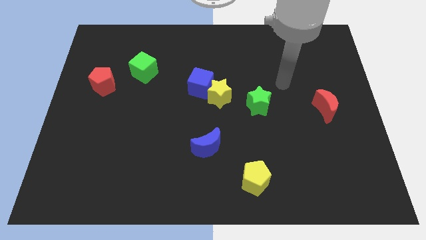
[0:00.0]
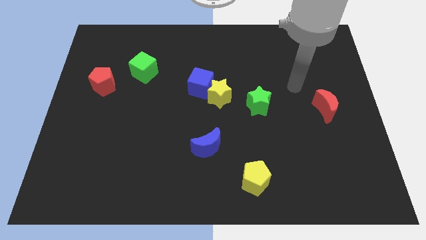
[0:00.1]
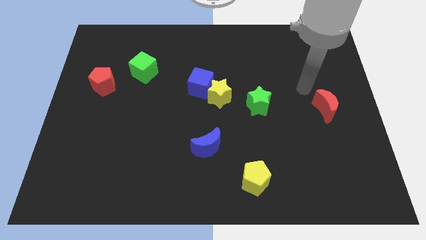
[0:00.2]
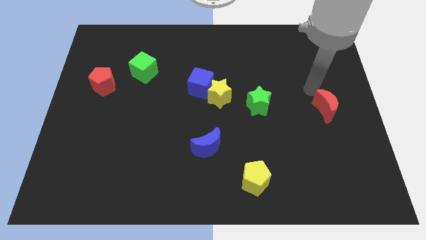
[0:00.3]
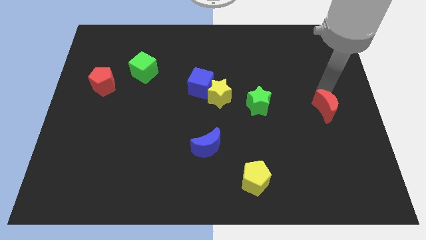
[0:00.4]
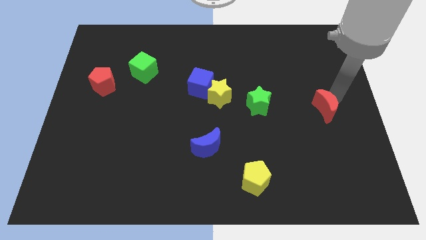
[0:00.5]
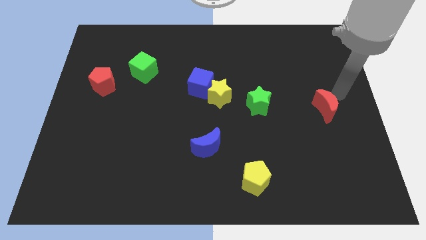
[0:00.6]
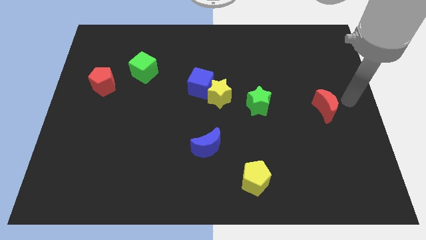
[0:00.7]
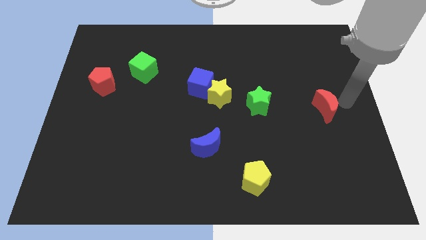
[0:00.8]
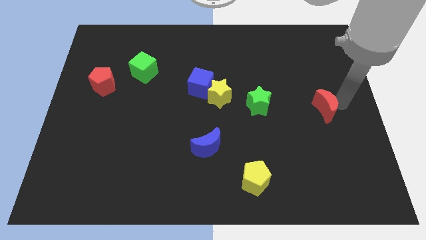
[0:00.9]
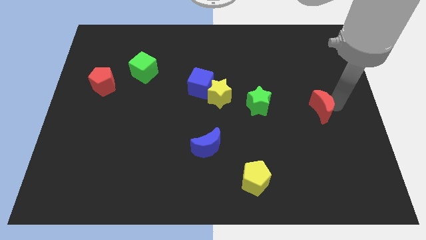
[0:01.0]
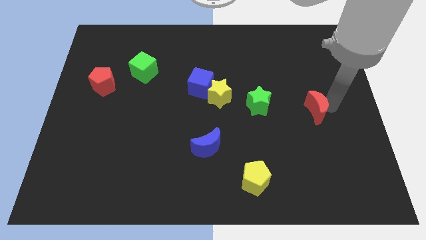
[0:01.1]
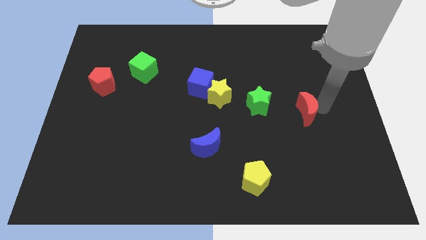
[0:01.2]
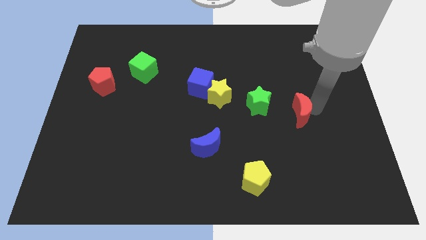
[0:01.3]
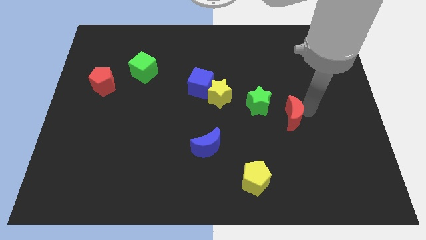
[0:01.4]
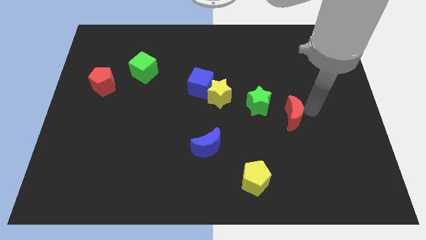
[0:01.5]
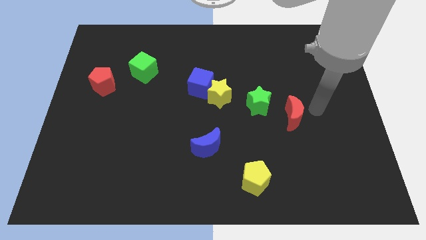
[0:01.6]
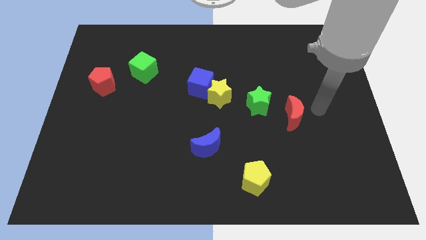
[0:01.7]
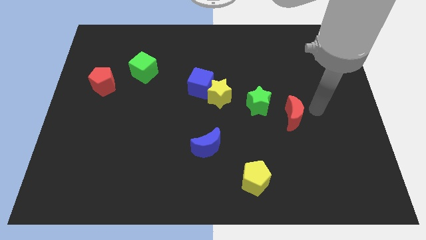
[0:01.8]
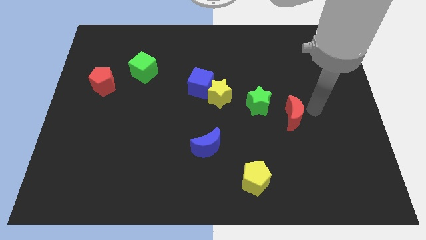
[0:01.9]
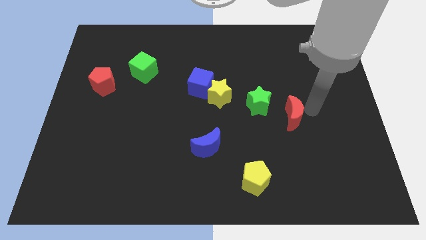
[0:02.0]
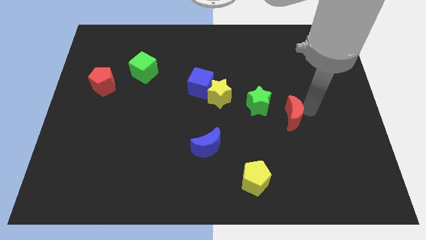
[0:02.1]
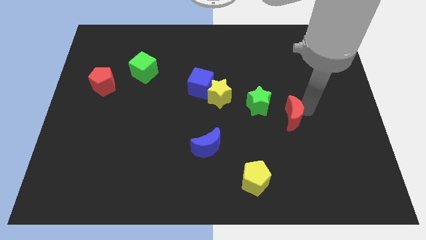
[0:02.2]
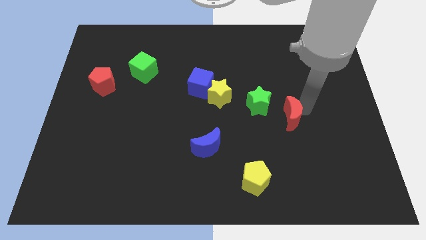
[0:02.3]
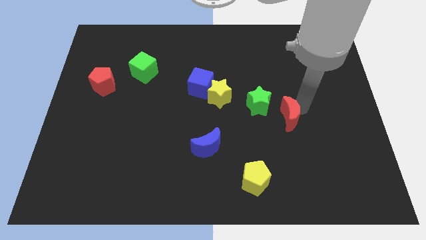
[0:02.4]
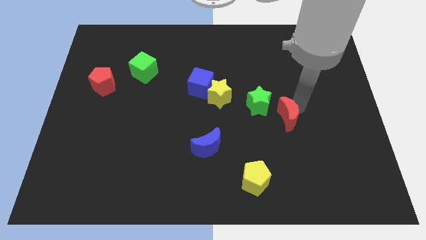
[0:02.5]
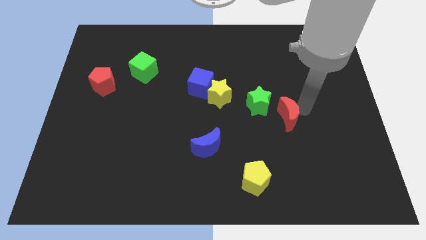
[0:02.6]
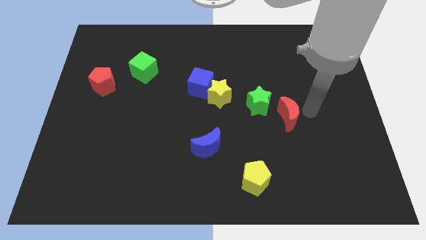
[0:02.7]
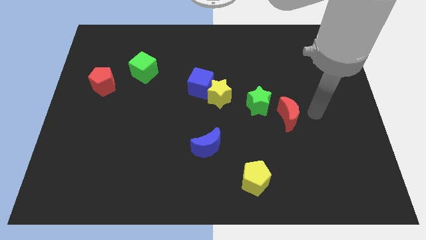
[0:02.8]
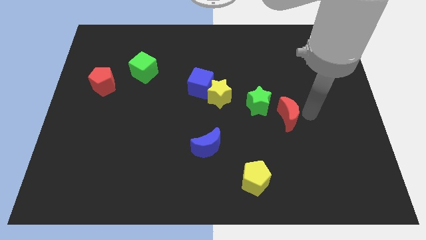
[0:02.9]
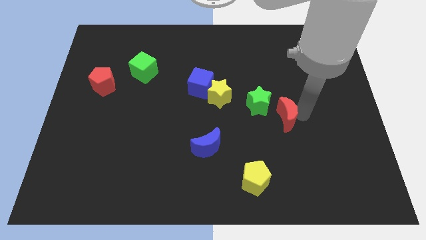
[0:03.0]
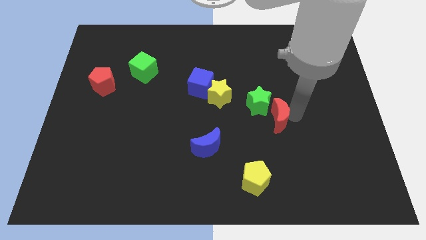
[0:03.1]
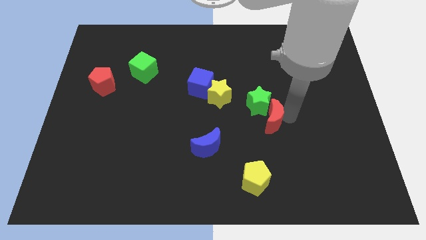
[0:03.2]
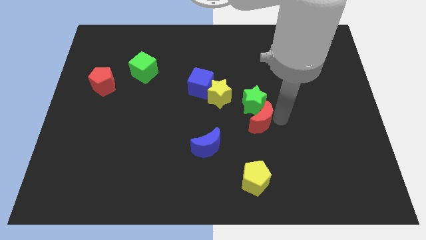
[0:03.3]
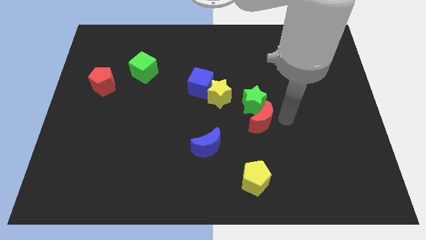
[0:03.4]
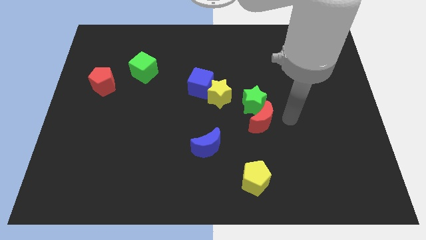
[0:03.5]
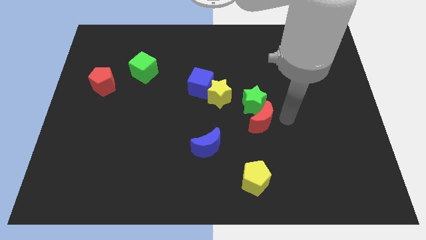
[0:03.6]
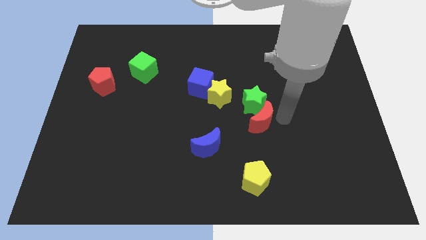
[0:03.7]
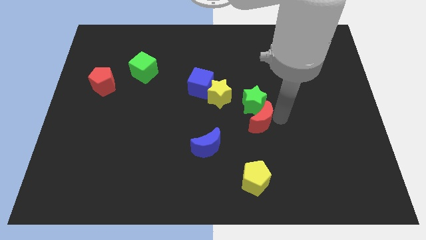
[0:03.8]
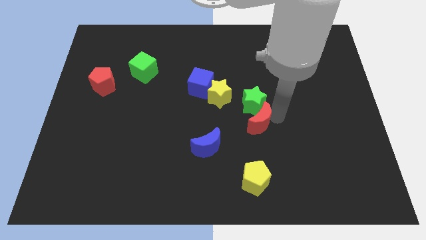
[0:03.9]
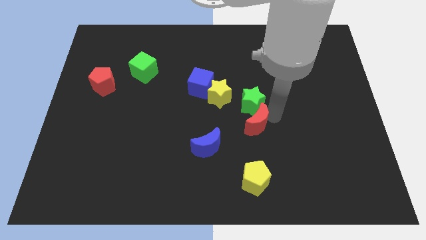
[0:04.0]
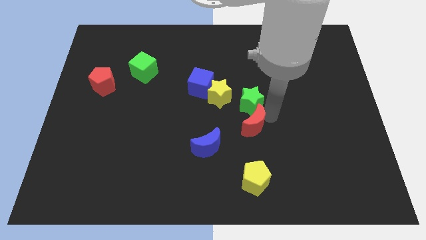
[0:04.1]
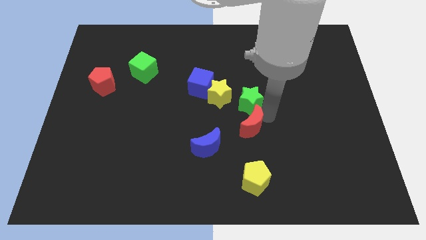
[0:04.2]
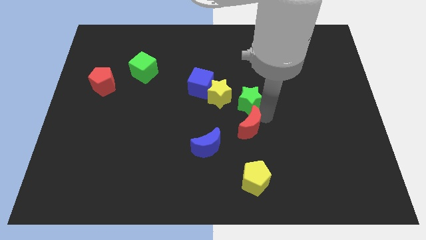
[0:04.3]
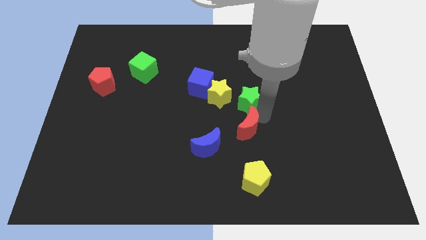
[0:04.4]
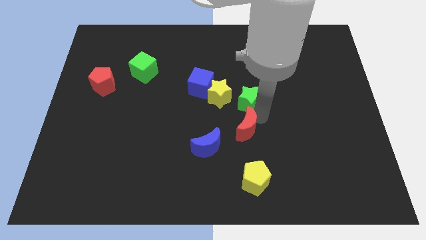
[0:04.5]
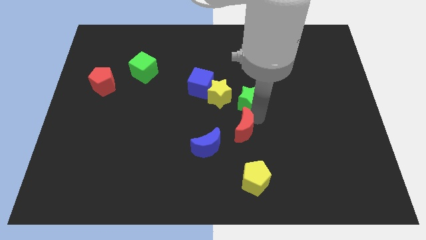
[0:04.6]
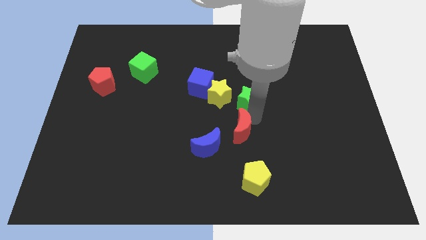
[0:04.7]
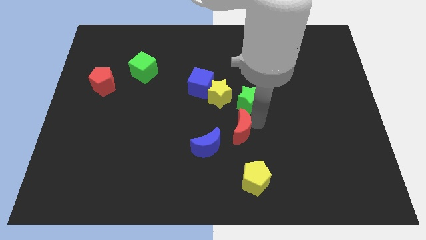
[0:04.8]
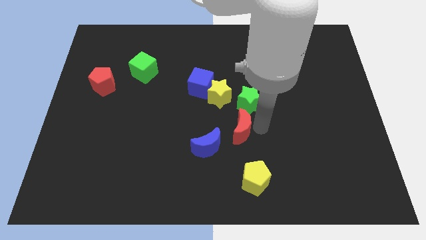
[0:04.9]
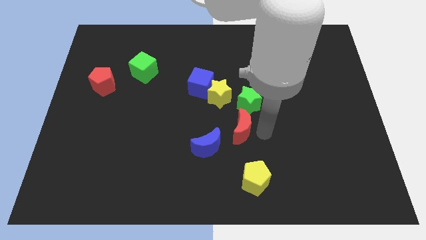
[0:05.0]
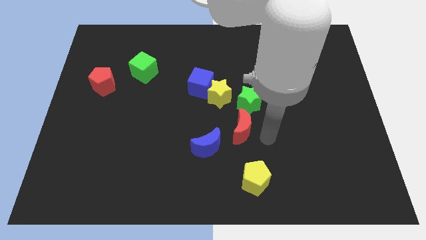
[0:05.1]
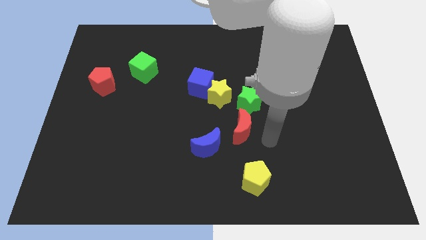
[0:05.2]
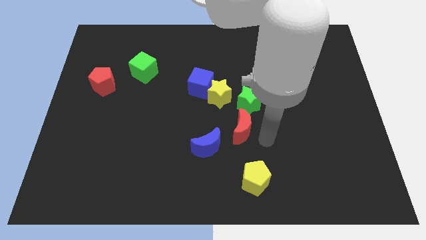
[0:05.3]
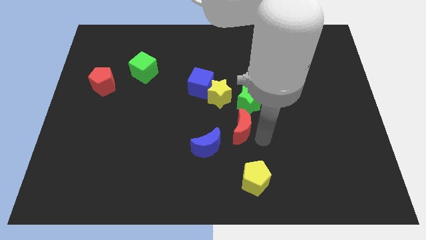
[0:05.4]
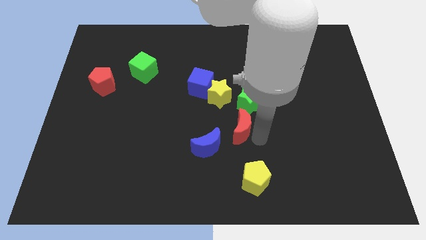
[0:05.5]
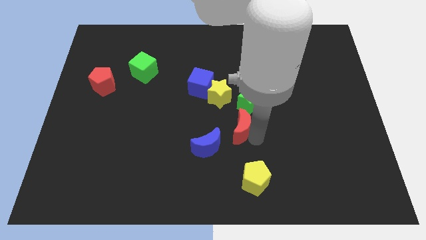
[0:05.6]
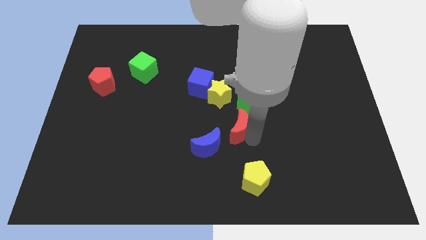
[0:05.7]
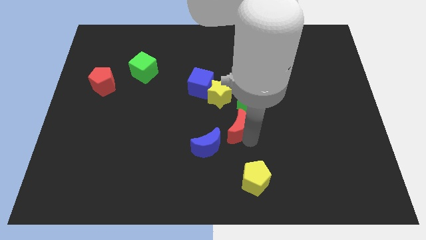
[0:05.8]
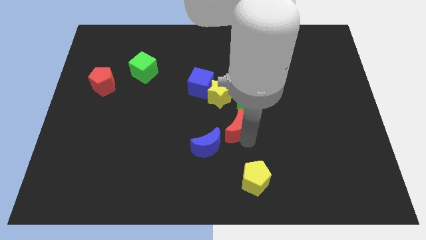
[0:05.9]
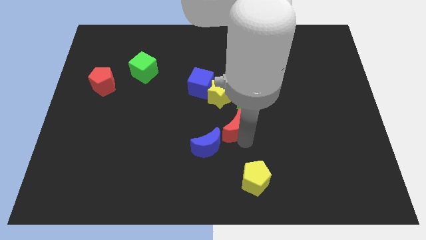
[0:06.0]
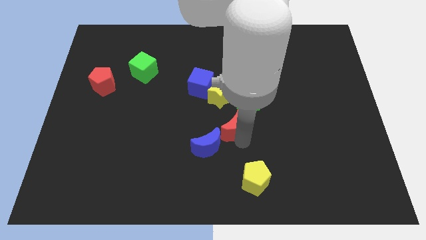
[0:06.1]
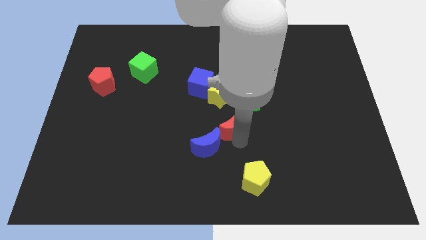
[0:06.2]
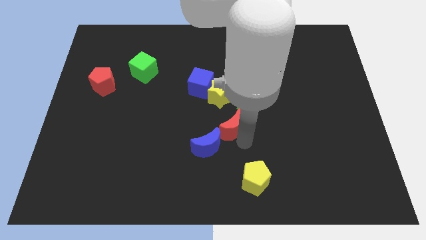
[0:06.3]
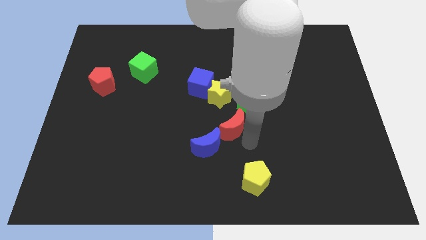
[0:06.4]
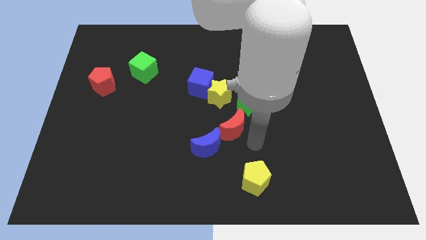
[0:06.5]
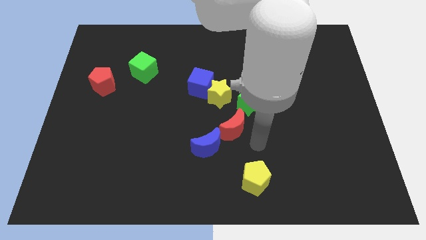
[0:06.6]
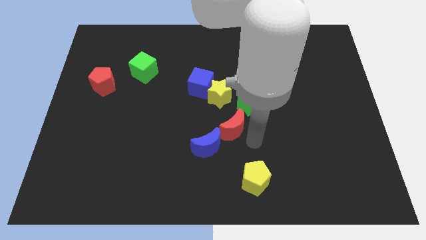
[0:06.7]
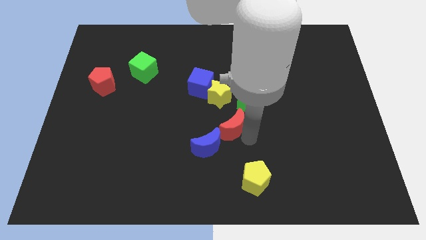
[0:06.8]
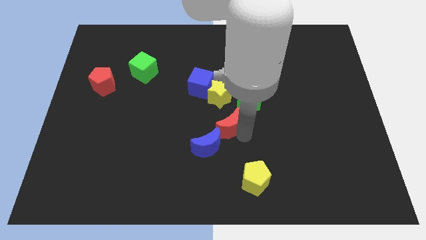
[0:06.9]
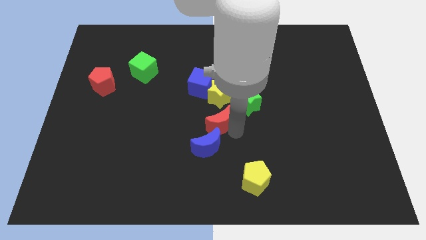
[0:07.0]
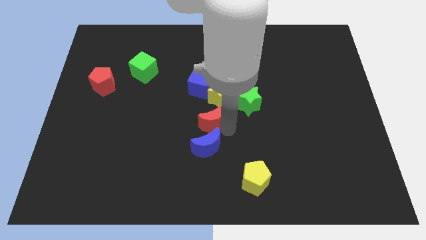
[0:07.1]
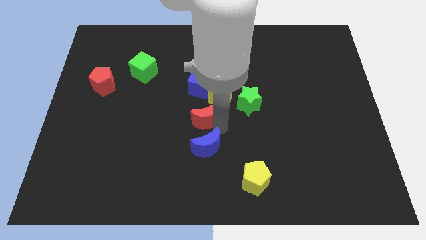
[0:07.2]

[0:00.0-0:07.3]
push the red moon to the left side of the green star
